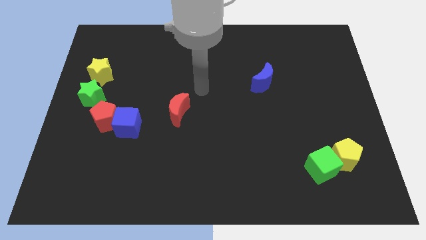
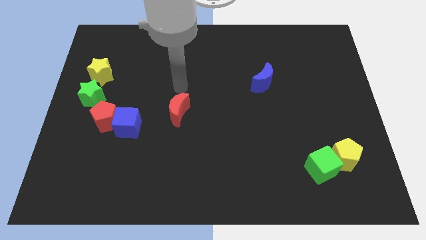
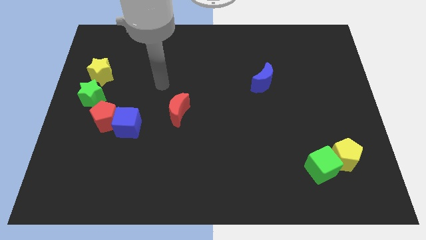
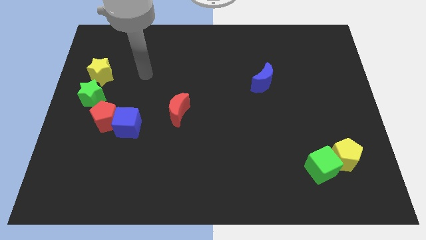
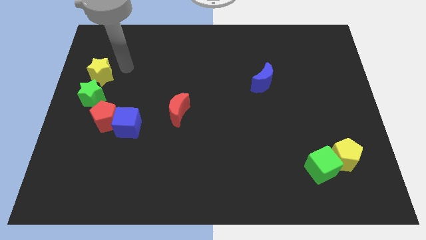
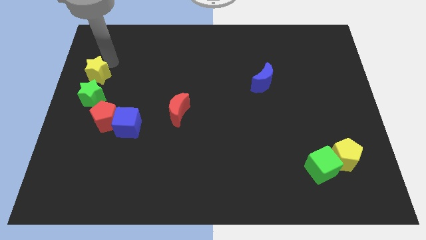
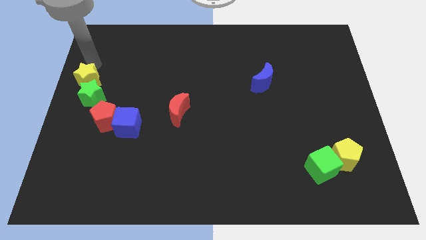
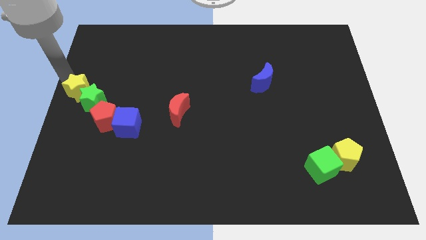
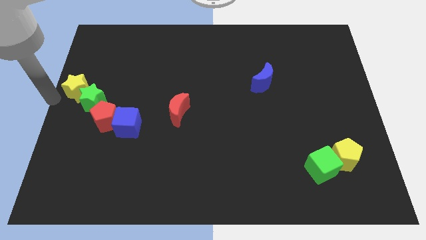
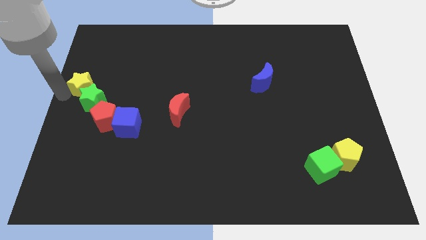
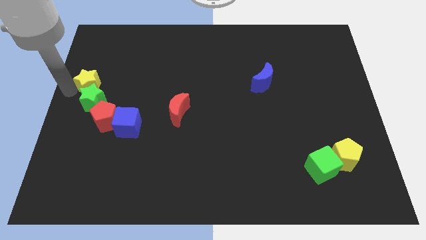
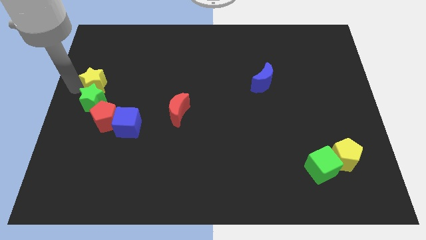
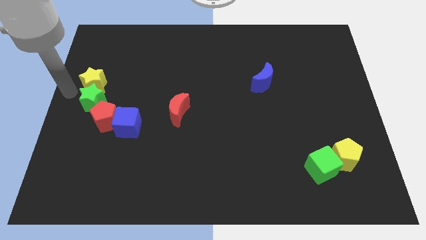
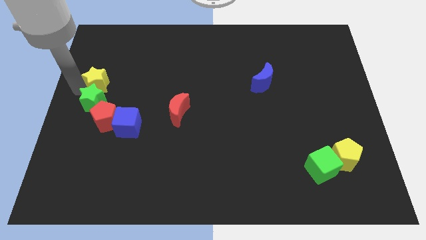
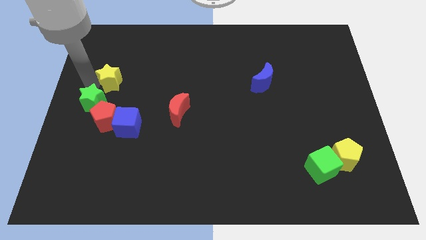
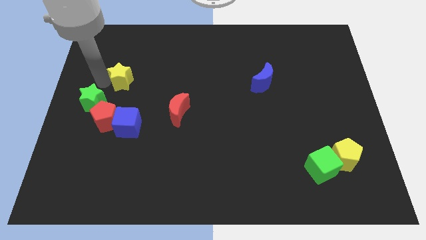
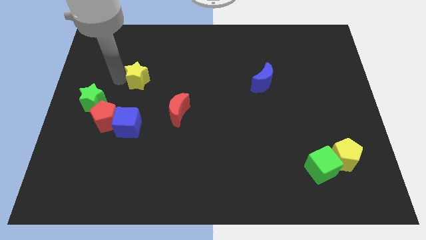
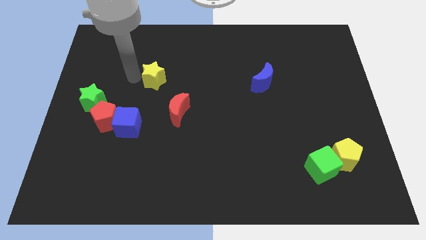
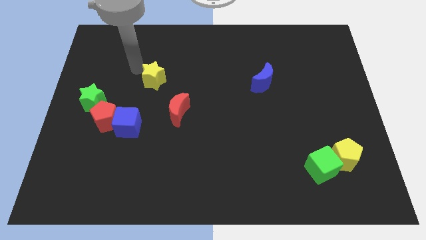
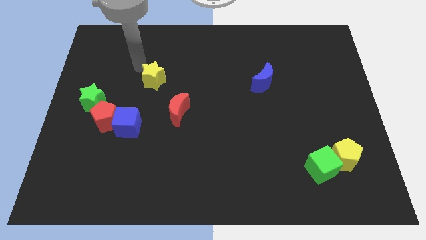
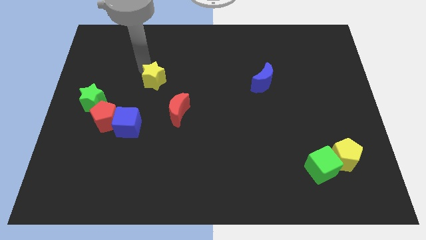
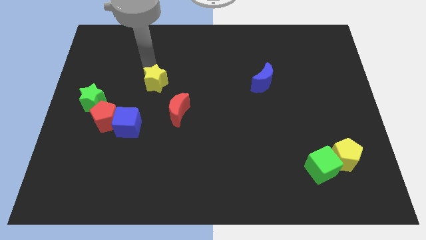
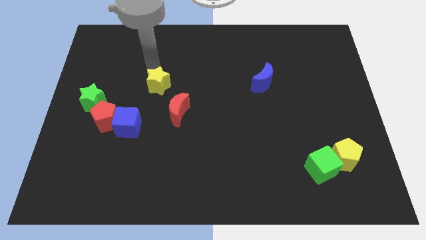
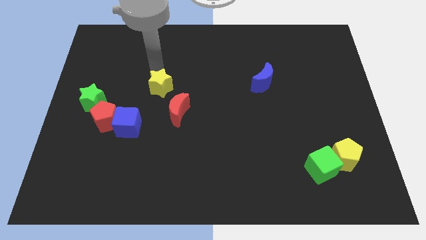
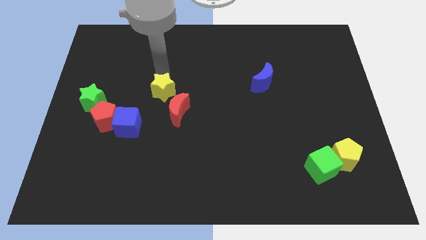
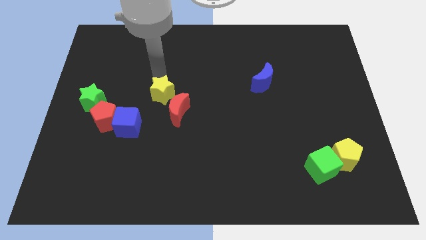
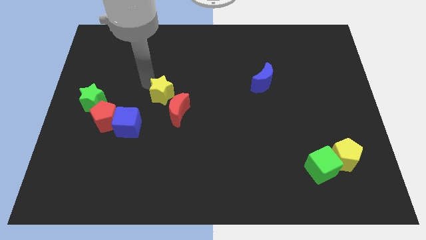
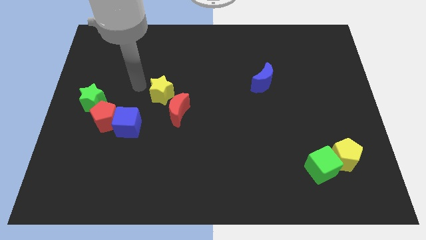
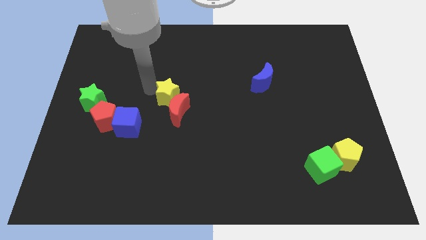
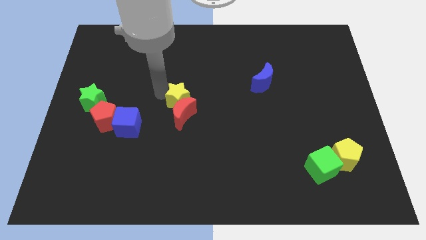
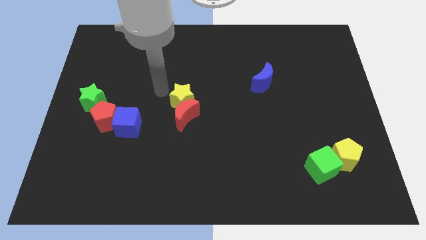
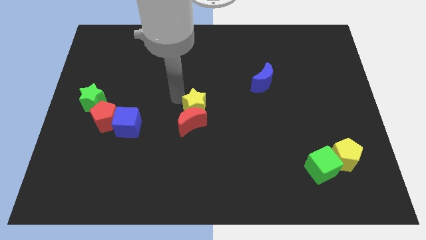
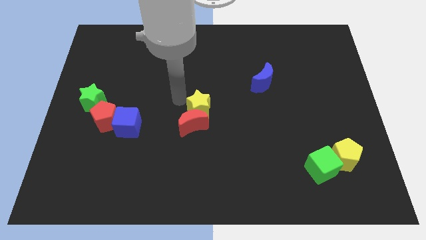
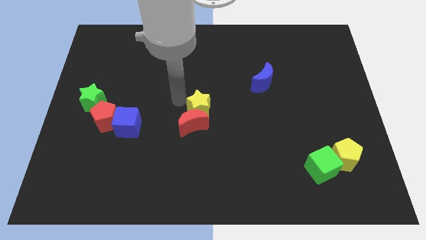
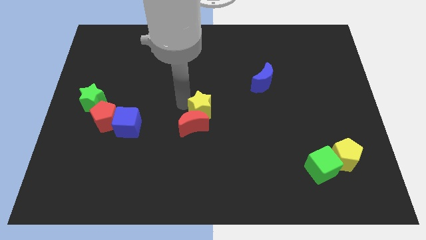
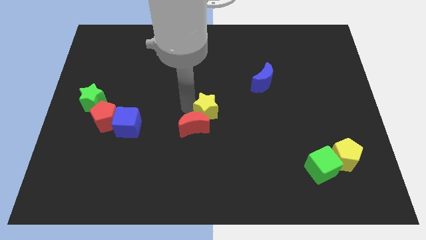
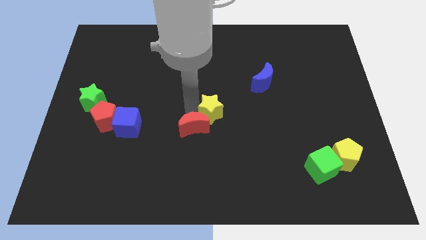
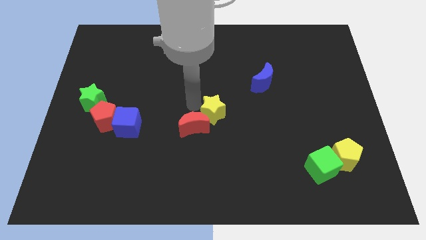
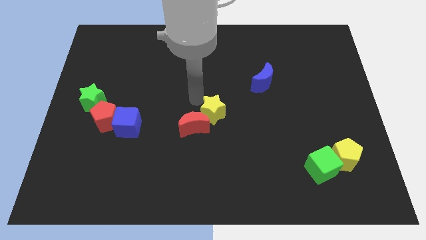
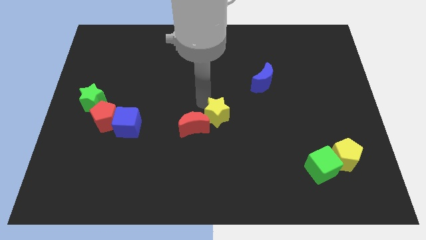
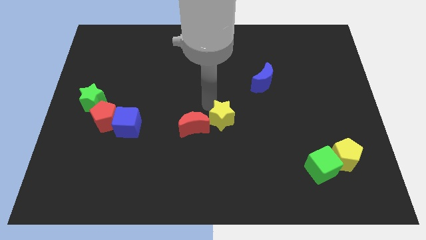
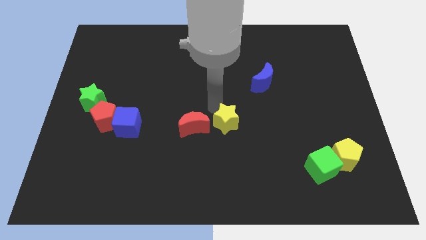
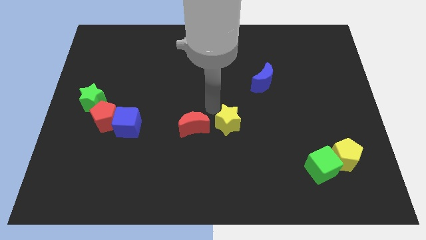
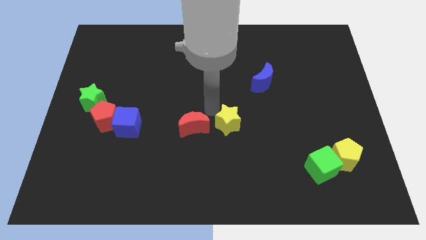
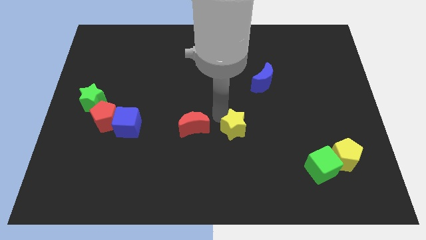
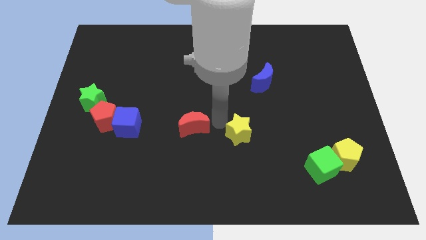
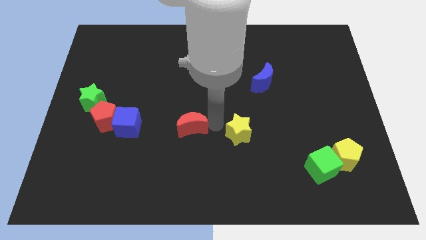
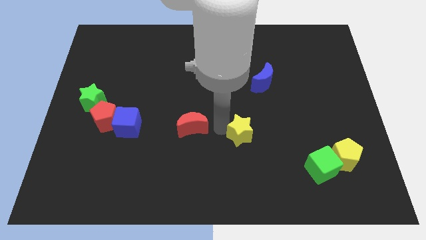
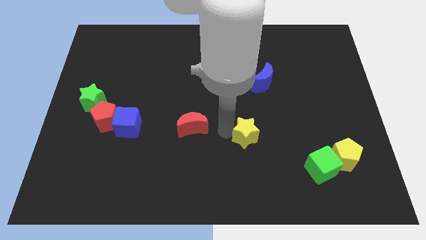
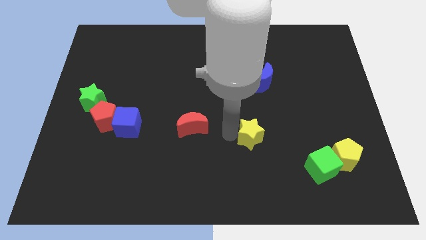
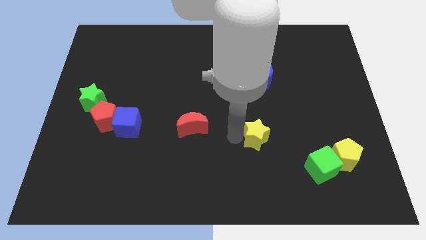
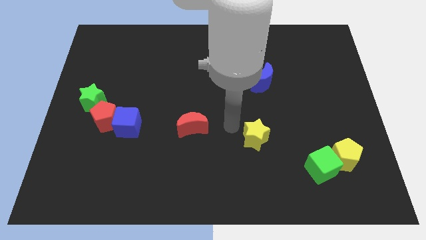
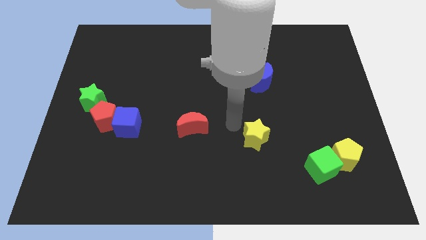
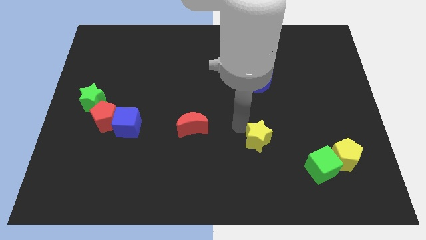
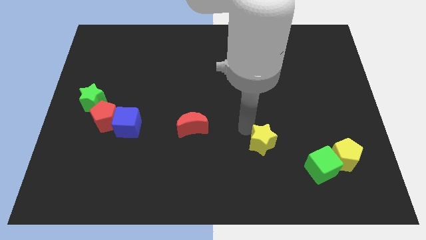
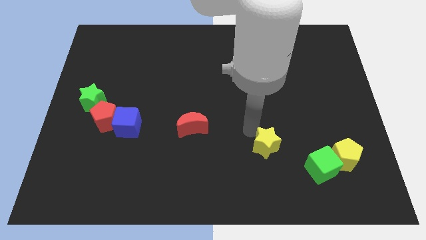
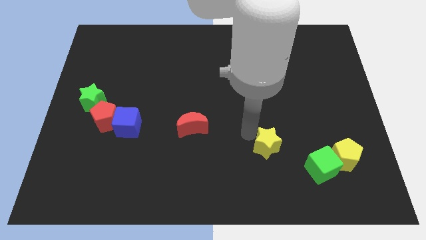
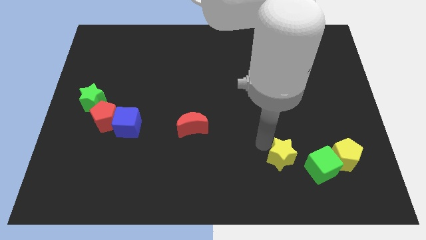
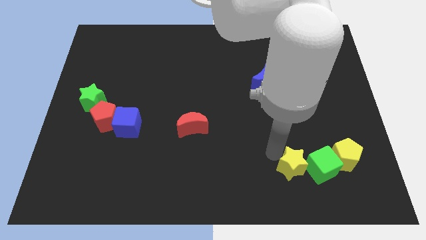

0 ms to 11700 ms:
push the yellow star towards the green cube
